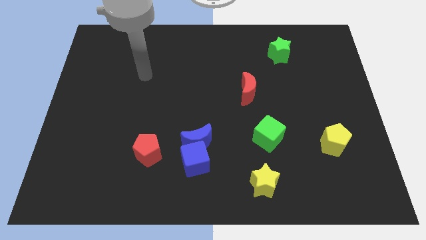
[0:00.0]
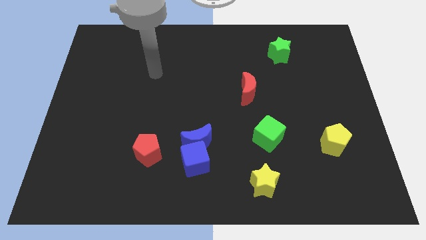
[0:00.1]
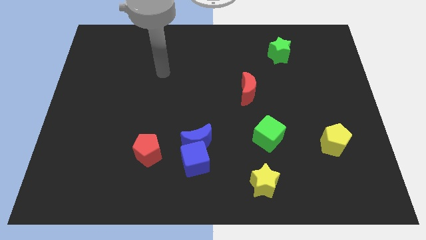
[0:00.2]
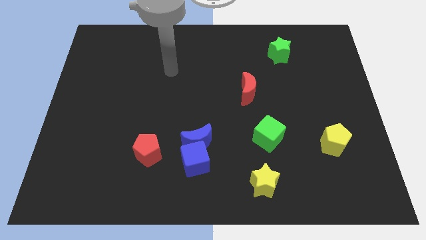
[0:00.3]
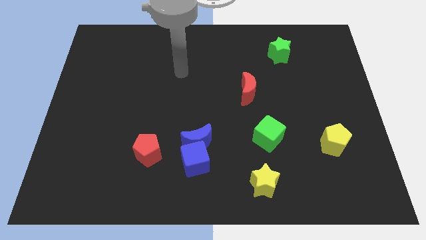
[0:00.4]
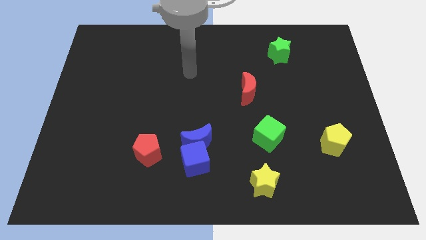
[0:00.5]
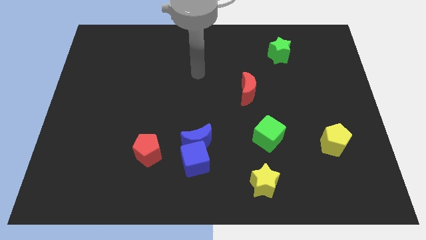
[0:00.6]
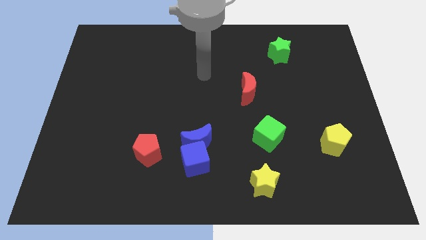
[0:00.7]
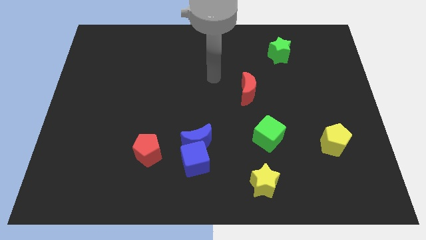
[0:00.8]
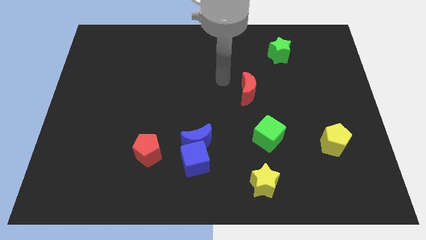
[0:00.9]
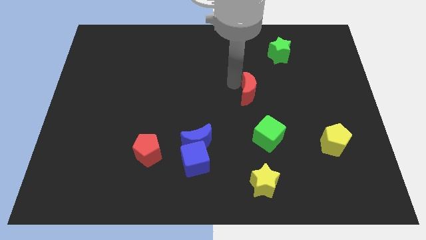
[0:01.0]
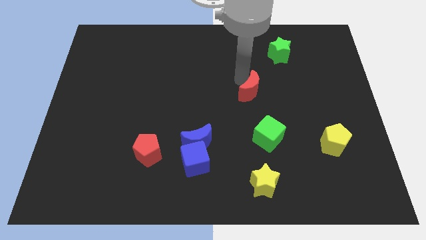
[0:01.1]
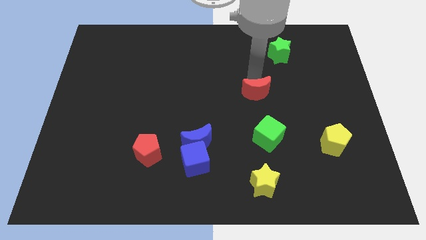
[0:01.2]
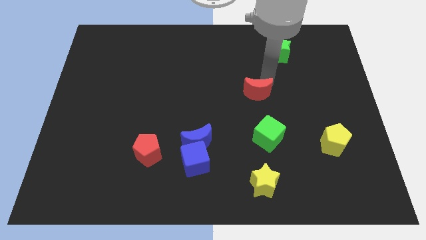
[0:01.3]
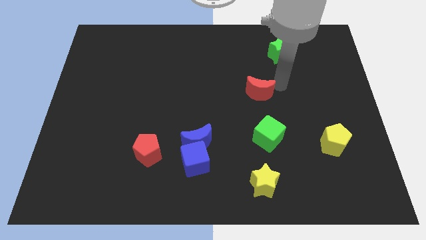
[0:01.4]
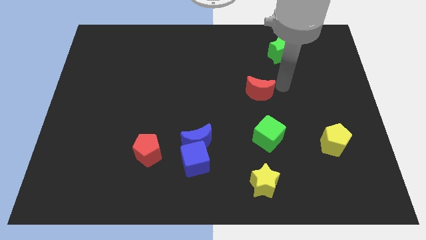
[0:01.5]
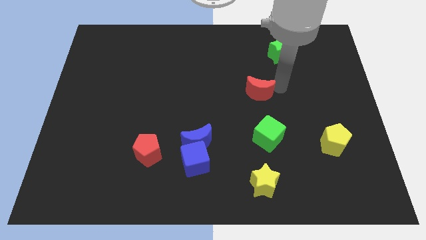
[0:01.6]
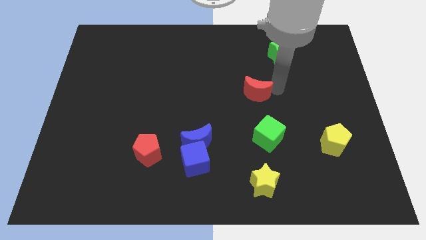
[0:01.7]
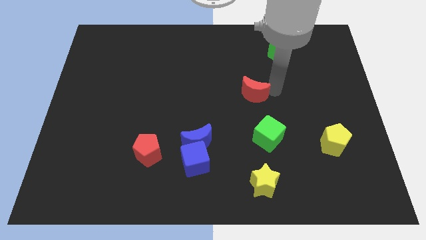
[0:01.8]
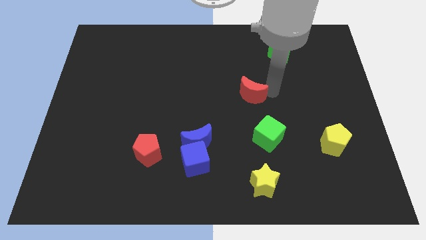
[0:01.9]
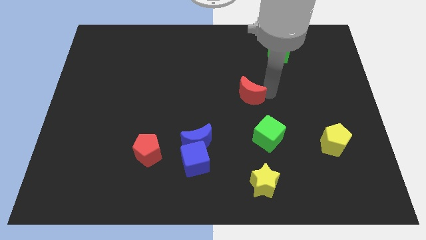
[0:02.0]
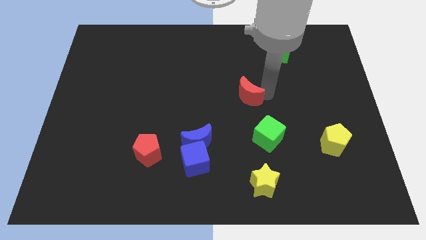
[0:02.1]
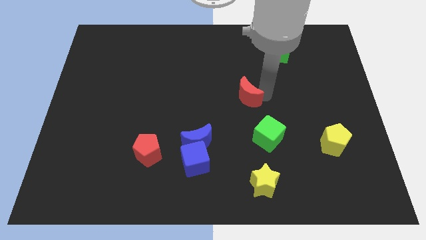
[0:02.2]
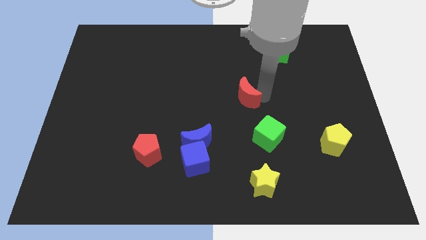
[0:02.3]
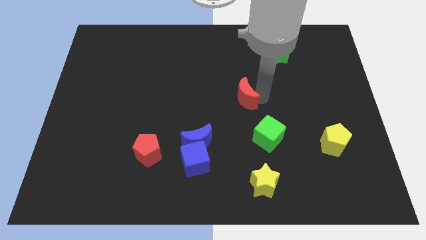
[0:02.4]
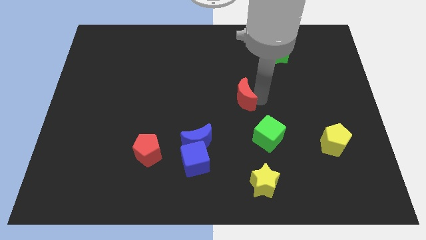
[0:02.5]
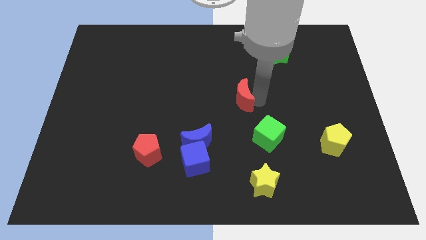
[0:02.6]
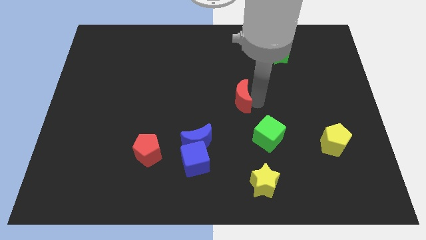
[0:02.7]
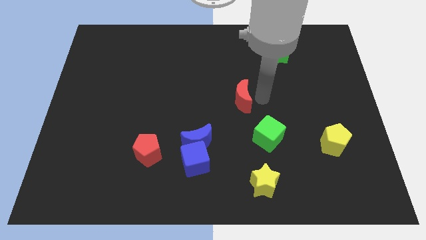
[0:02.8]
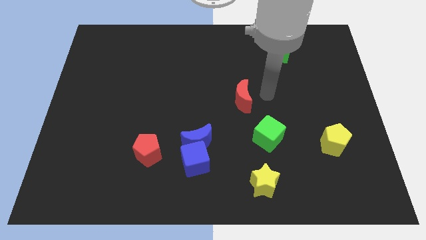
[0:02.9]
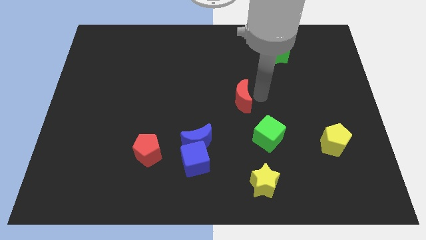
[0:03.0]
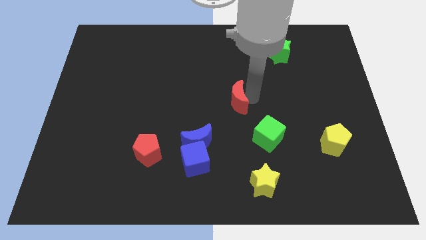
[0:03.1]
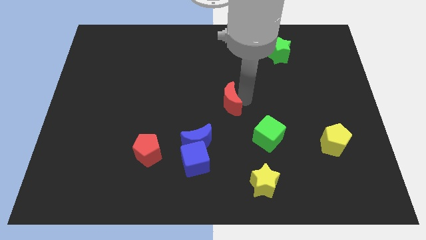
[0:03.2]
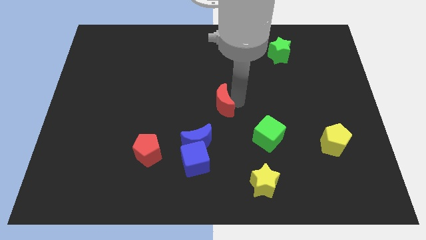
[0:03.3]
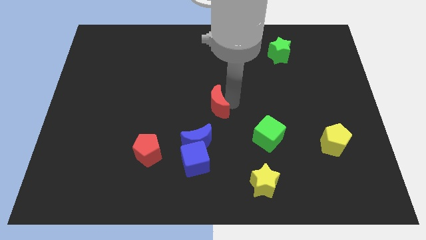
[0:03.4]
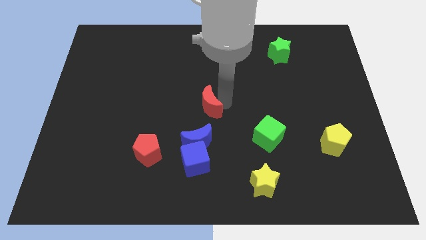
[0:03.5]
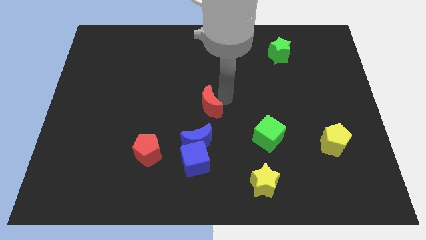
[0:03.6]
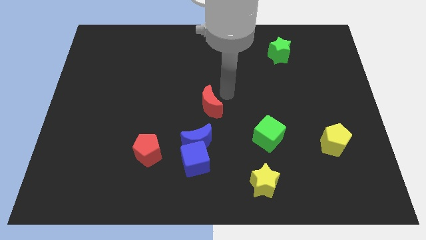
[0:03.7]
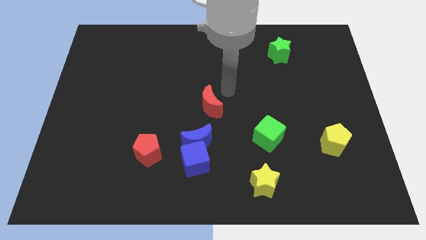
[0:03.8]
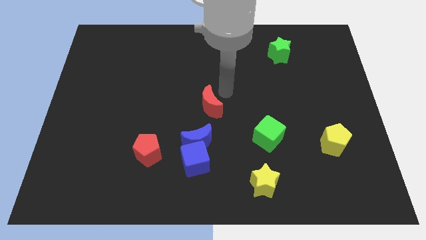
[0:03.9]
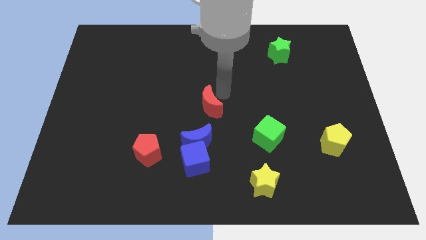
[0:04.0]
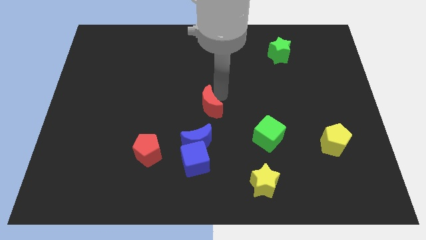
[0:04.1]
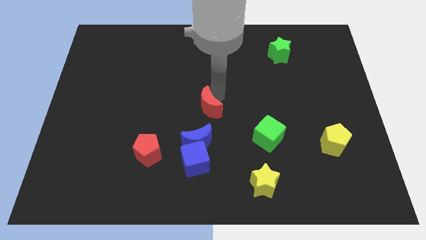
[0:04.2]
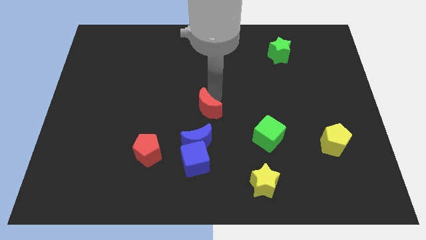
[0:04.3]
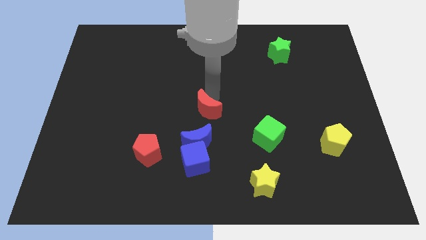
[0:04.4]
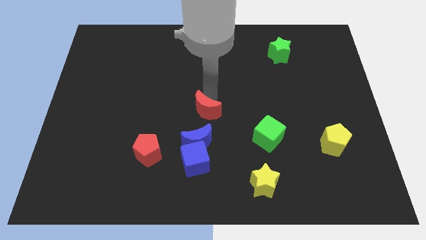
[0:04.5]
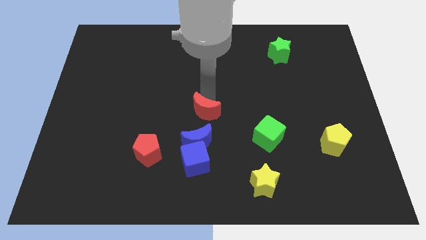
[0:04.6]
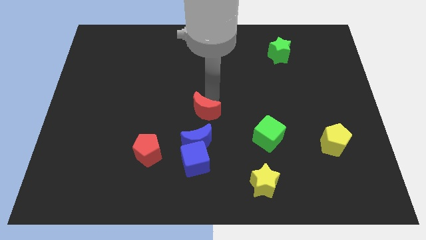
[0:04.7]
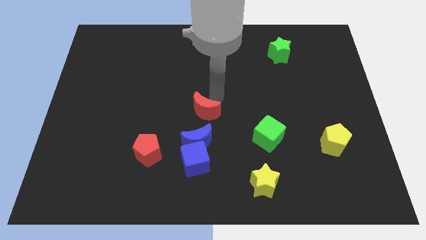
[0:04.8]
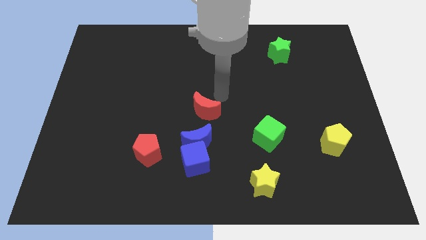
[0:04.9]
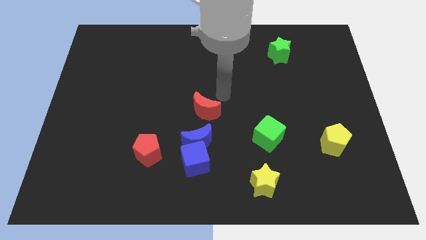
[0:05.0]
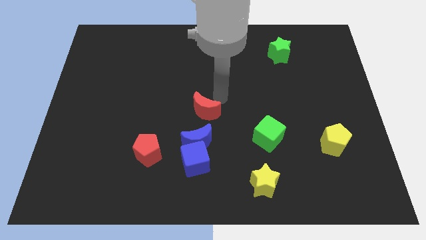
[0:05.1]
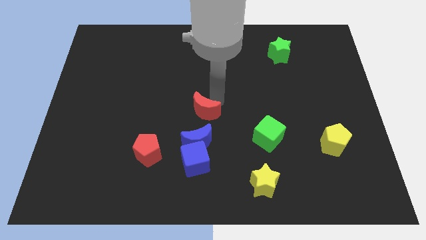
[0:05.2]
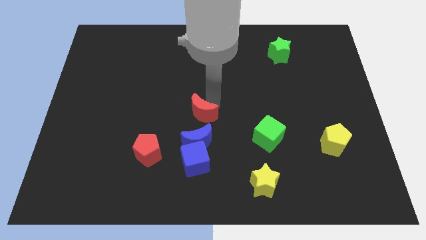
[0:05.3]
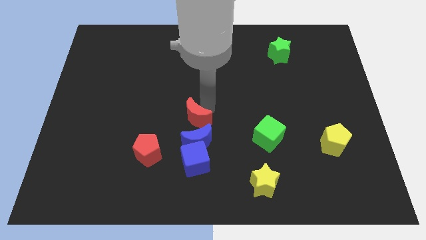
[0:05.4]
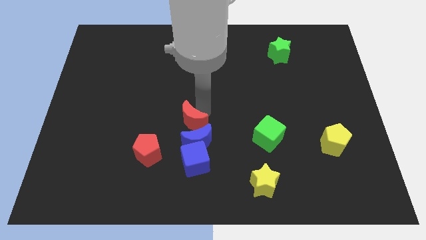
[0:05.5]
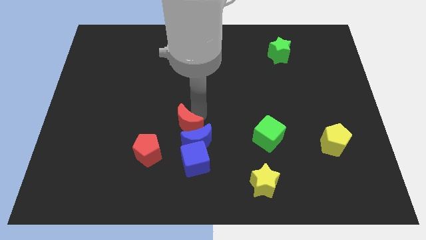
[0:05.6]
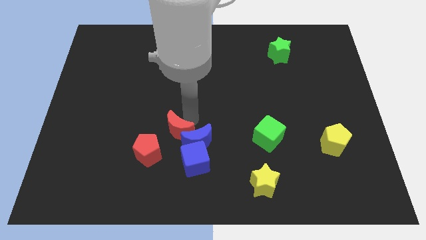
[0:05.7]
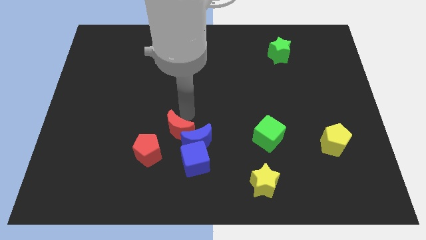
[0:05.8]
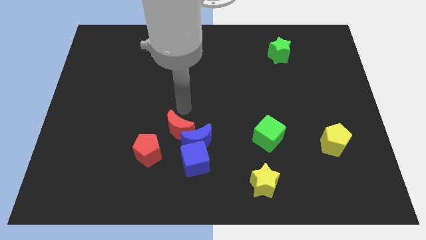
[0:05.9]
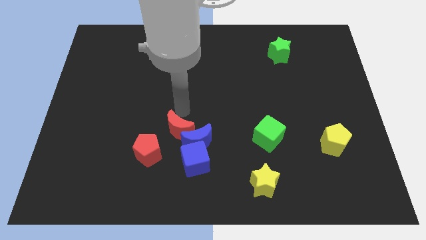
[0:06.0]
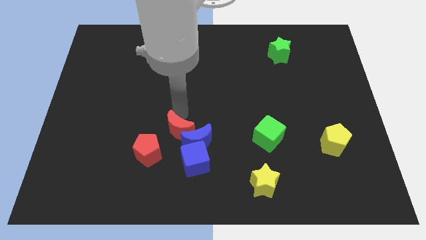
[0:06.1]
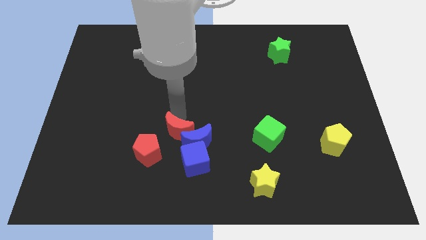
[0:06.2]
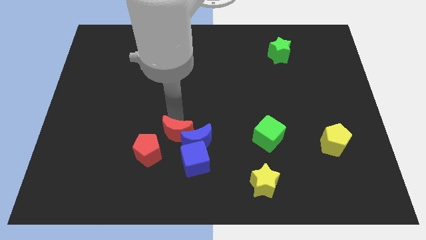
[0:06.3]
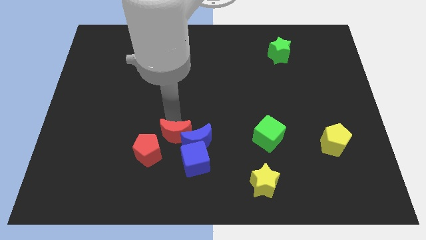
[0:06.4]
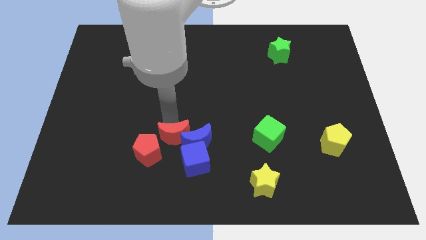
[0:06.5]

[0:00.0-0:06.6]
push the red moon diagonally down and to the left of the blue moon

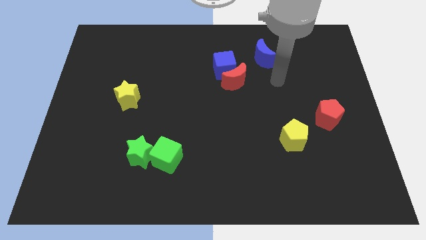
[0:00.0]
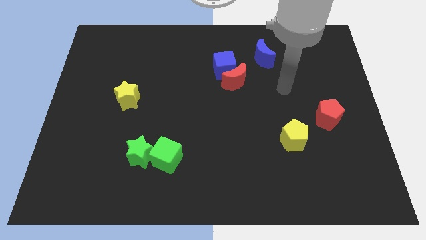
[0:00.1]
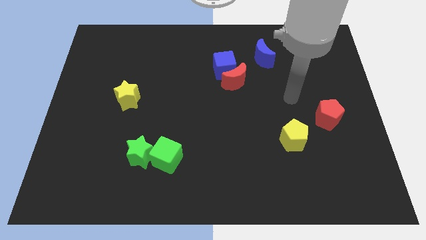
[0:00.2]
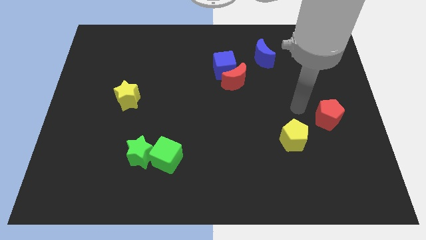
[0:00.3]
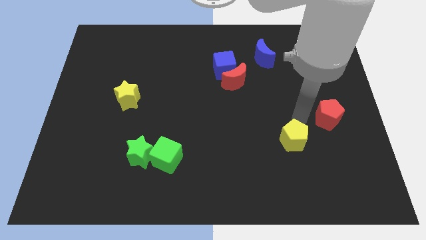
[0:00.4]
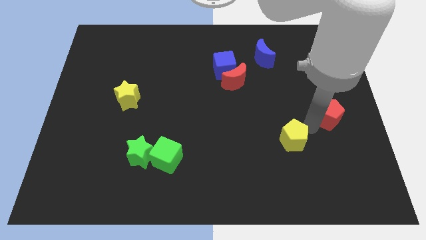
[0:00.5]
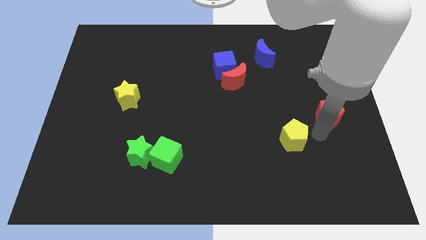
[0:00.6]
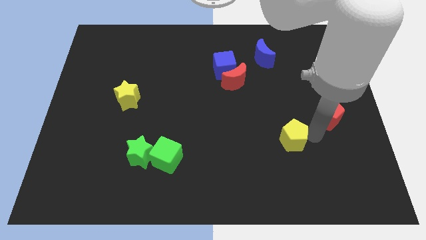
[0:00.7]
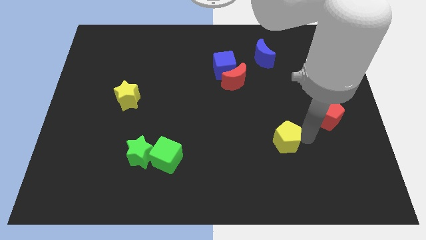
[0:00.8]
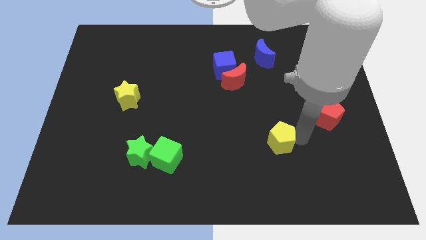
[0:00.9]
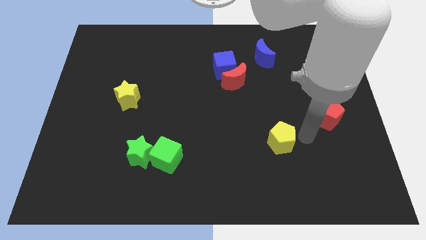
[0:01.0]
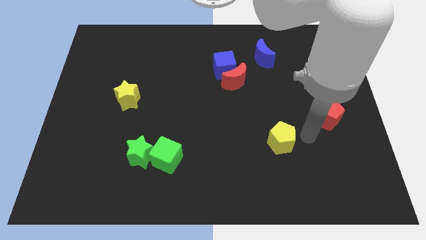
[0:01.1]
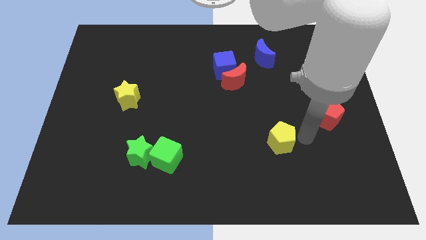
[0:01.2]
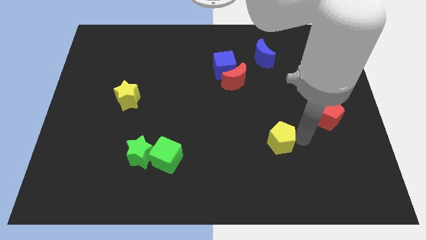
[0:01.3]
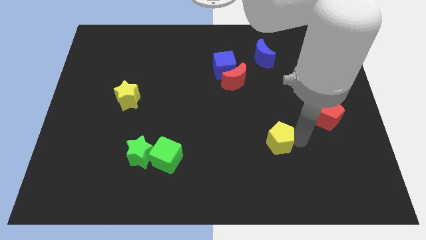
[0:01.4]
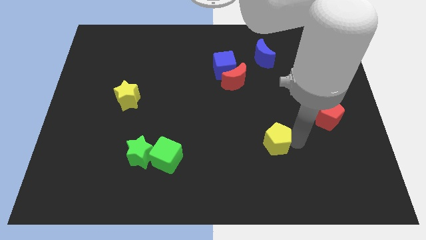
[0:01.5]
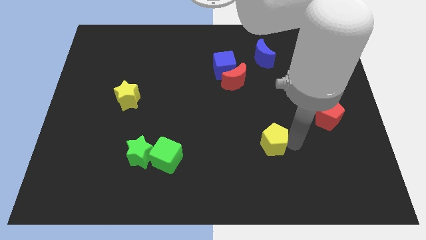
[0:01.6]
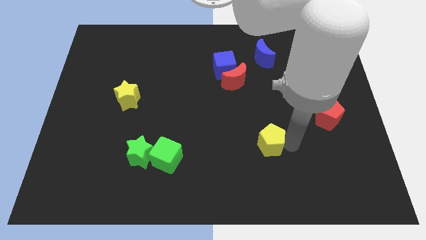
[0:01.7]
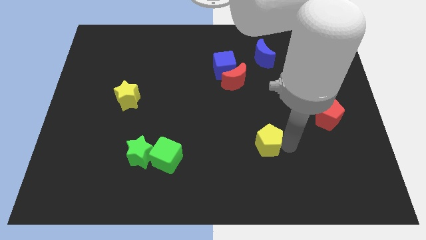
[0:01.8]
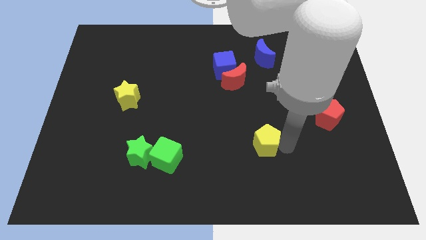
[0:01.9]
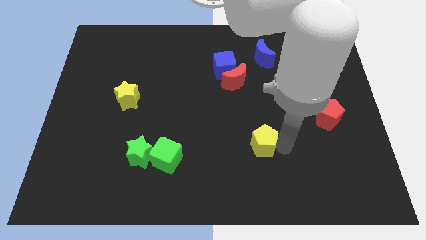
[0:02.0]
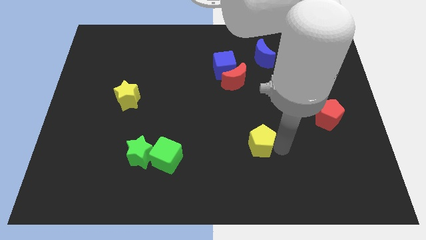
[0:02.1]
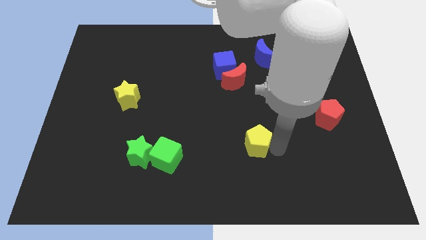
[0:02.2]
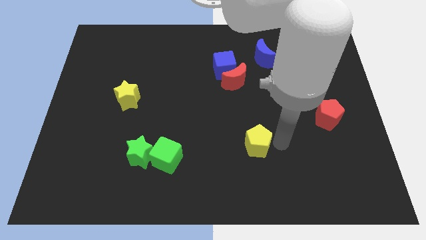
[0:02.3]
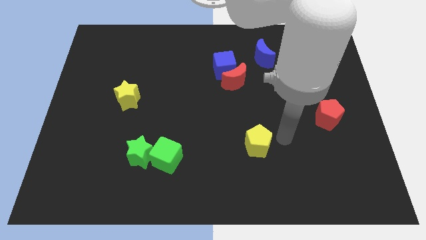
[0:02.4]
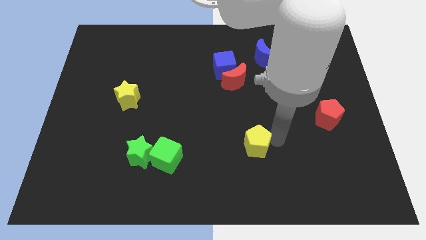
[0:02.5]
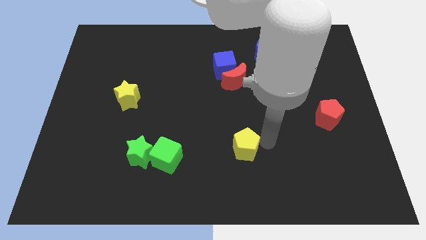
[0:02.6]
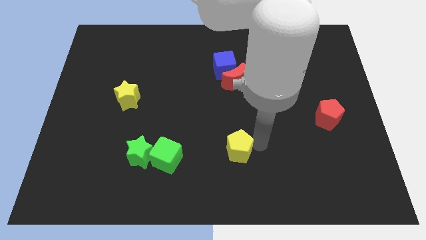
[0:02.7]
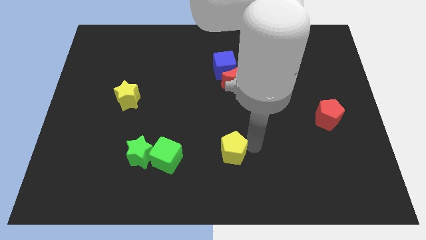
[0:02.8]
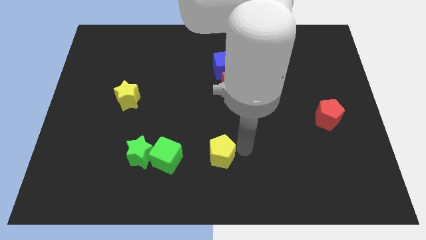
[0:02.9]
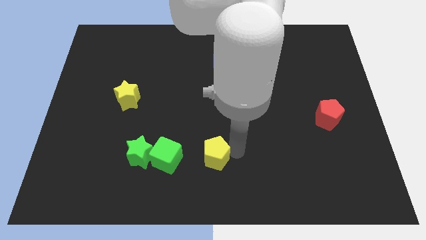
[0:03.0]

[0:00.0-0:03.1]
slide the yellow pentagon right of the green star
